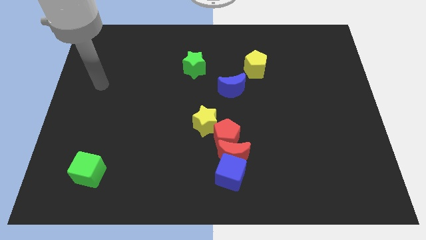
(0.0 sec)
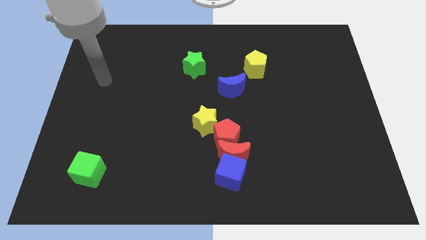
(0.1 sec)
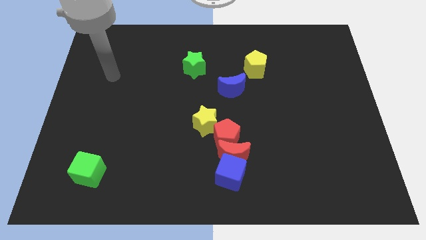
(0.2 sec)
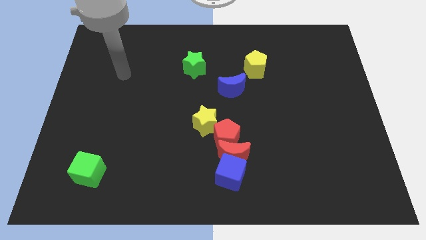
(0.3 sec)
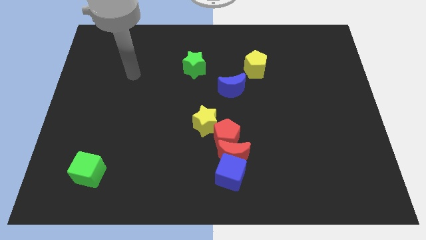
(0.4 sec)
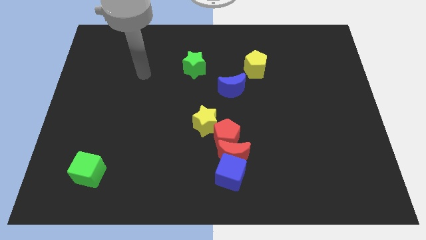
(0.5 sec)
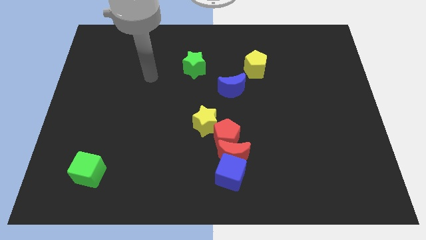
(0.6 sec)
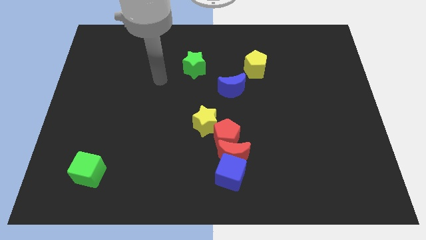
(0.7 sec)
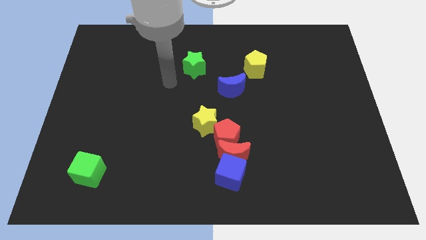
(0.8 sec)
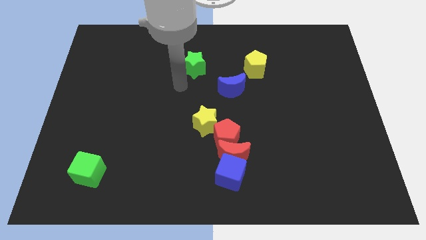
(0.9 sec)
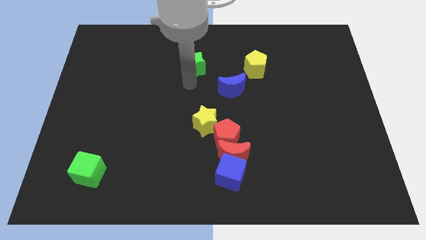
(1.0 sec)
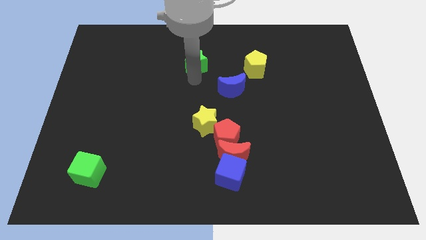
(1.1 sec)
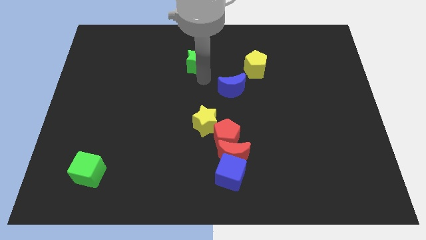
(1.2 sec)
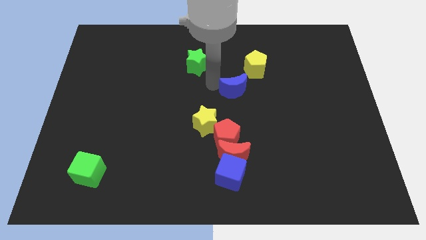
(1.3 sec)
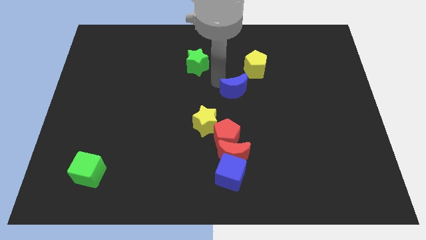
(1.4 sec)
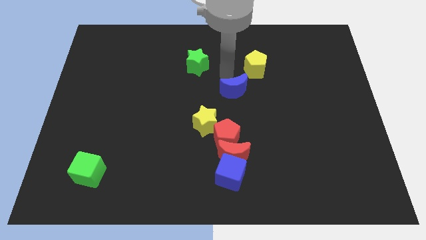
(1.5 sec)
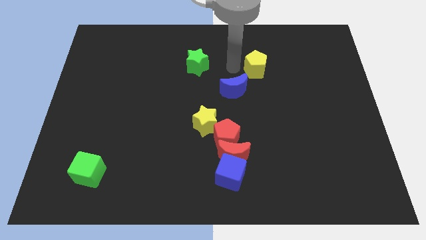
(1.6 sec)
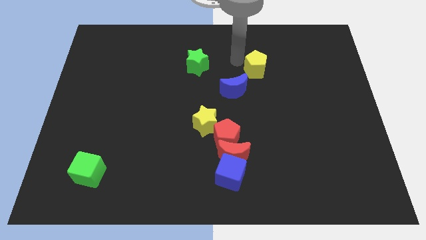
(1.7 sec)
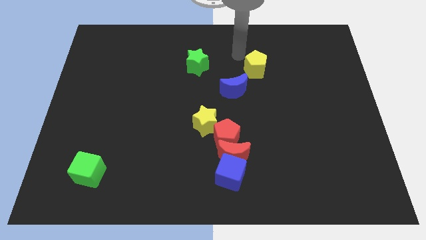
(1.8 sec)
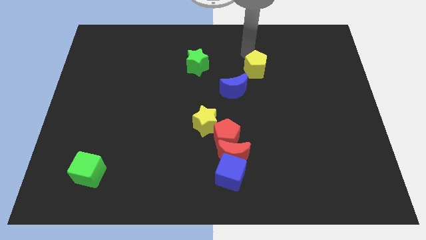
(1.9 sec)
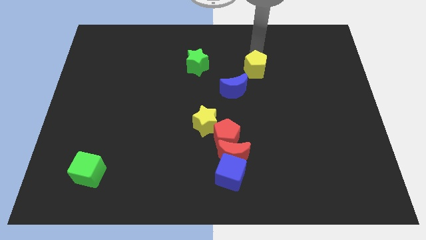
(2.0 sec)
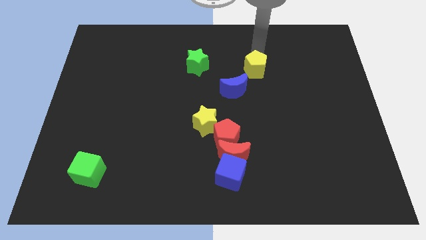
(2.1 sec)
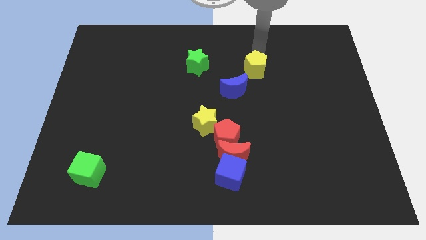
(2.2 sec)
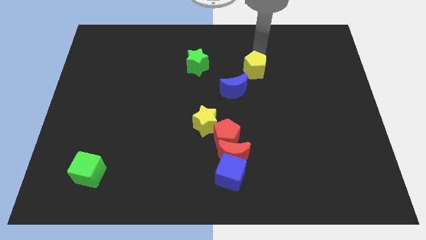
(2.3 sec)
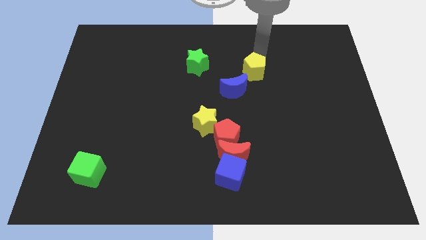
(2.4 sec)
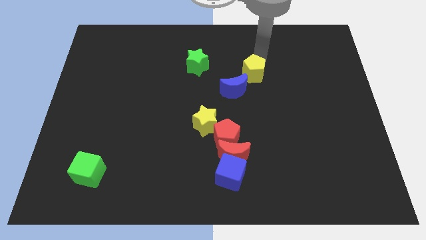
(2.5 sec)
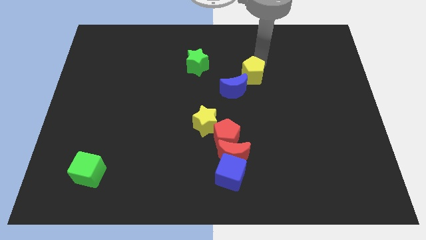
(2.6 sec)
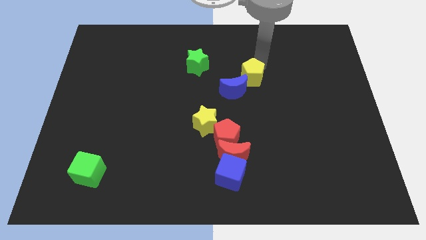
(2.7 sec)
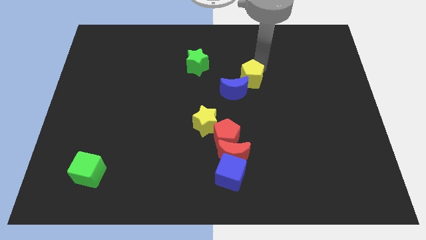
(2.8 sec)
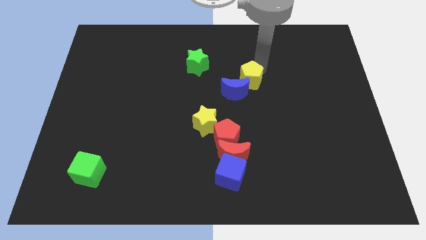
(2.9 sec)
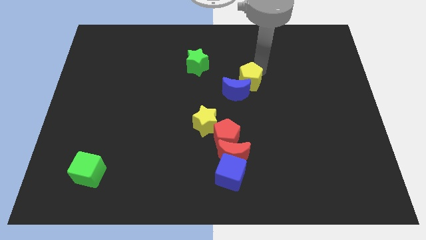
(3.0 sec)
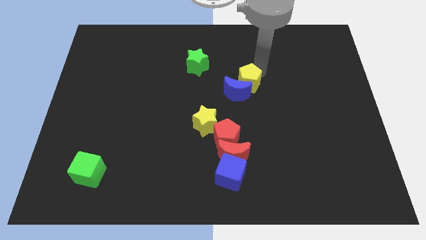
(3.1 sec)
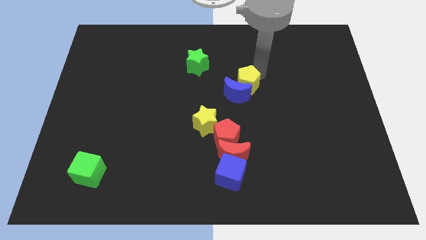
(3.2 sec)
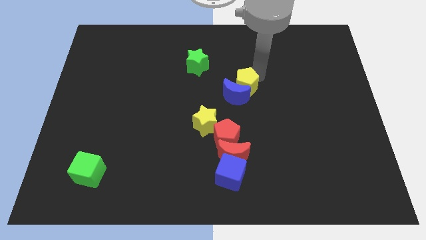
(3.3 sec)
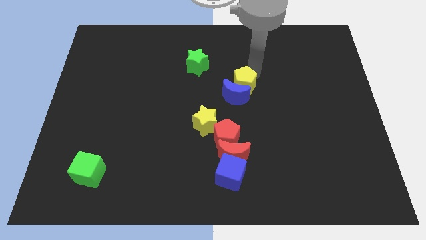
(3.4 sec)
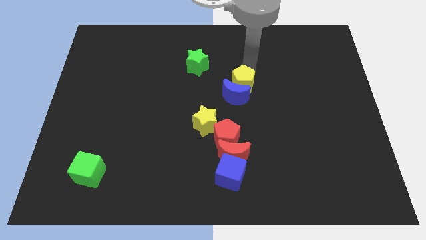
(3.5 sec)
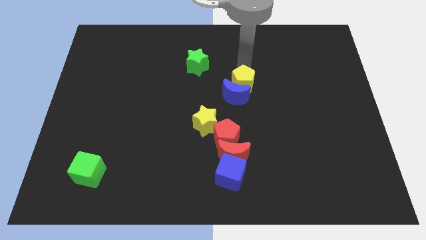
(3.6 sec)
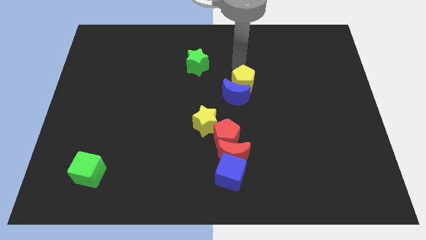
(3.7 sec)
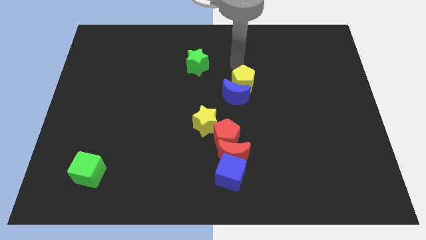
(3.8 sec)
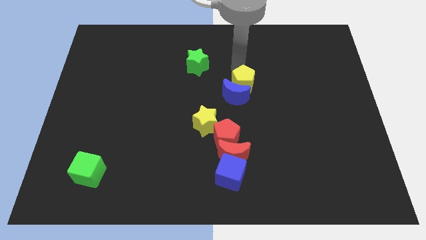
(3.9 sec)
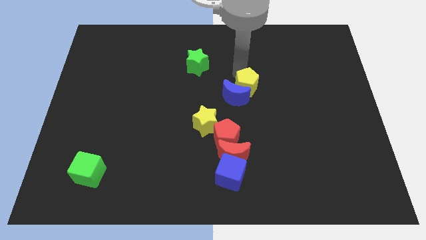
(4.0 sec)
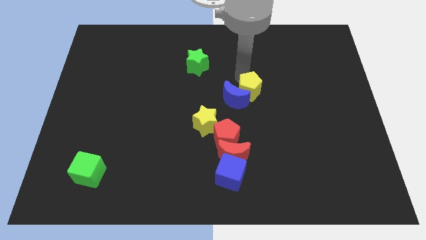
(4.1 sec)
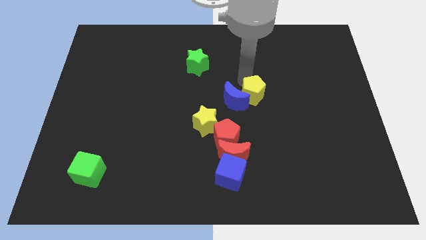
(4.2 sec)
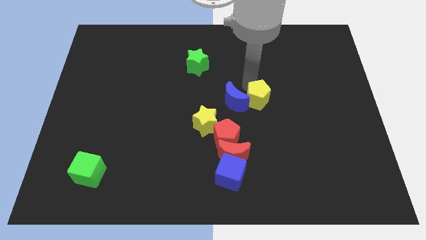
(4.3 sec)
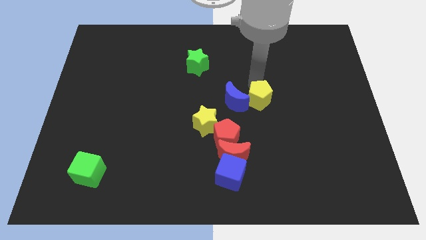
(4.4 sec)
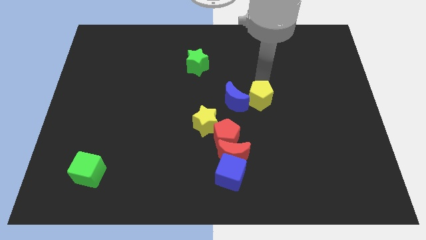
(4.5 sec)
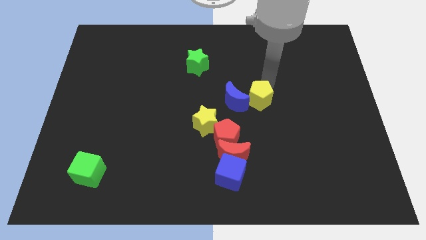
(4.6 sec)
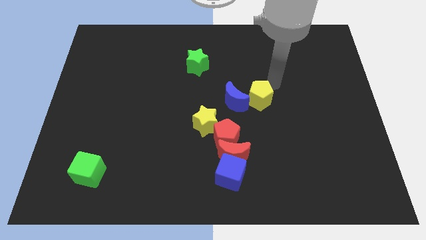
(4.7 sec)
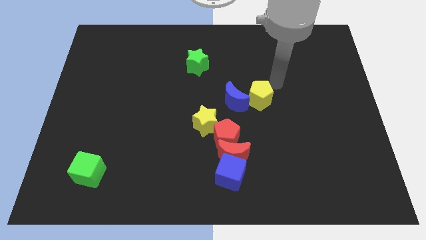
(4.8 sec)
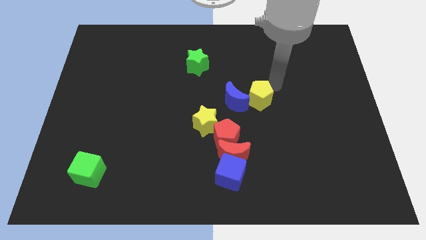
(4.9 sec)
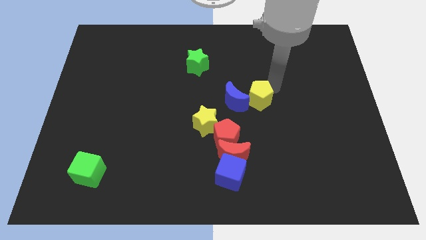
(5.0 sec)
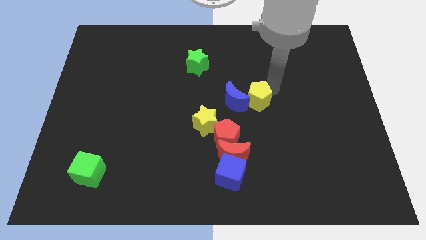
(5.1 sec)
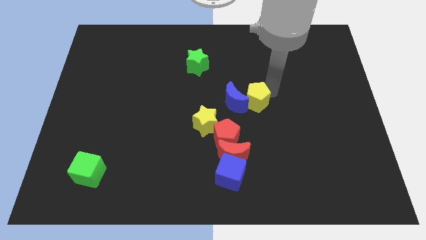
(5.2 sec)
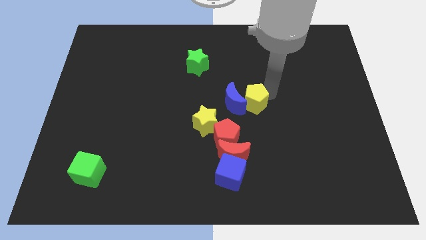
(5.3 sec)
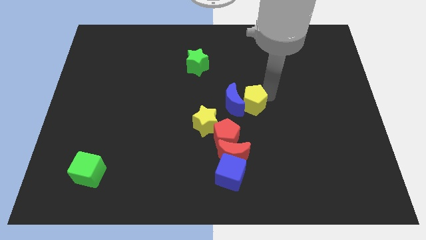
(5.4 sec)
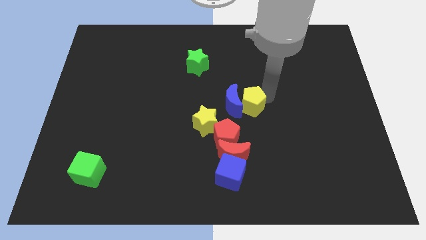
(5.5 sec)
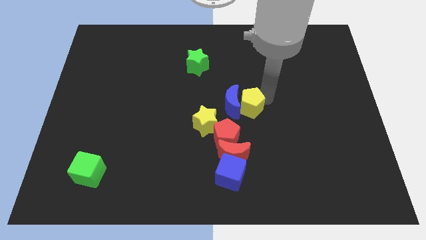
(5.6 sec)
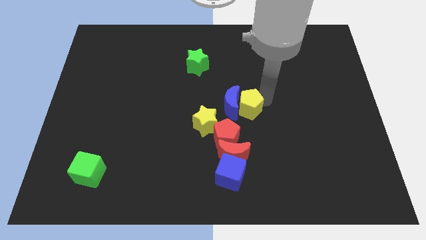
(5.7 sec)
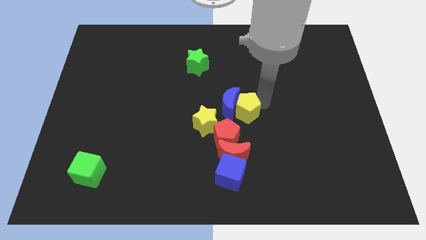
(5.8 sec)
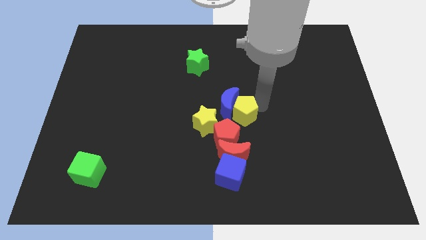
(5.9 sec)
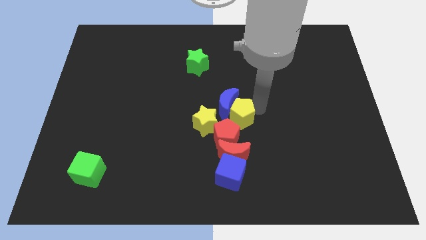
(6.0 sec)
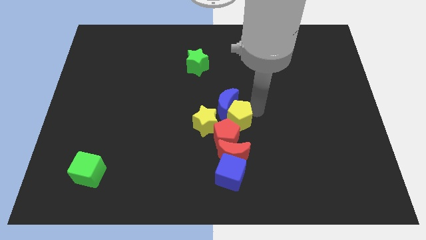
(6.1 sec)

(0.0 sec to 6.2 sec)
push the yellow pentagon to the red pentagon

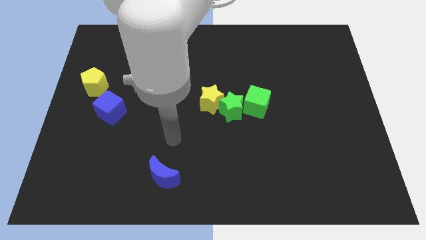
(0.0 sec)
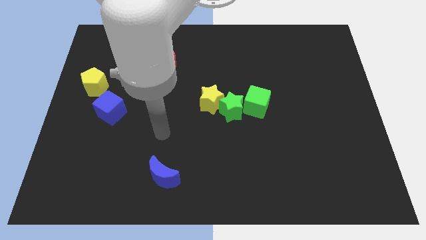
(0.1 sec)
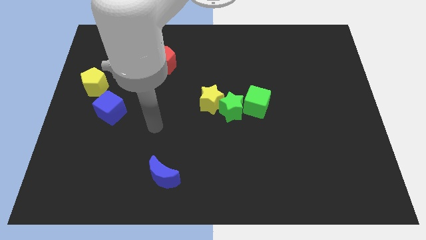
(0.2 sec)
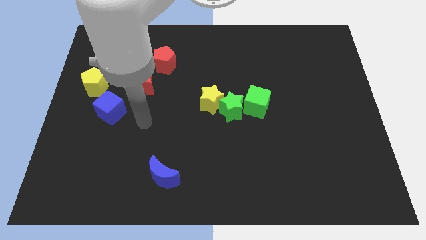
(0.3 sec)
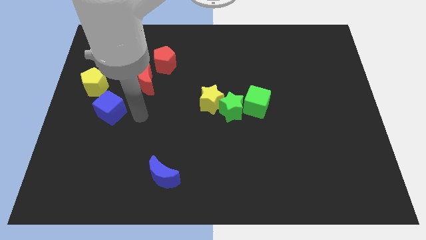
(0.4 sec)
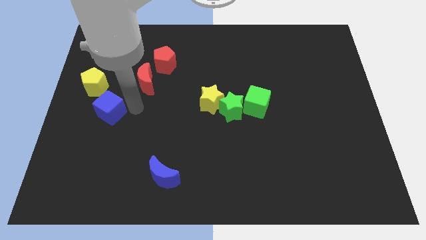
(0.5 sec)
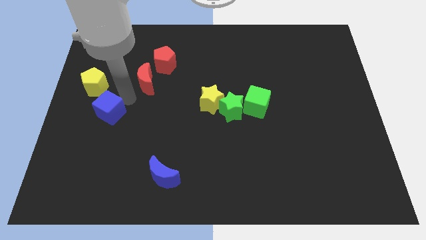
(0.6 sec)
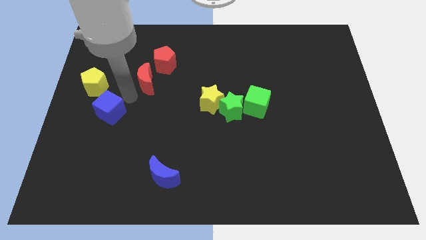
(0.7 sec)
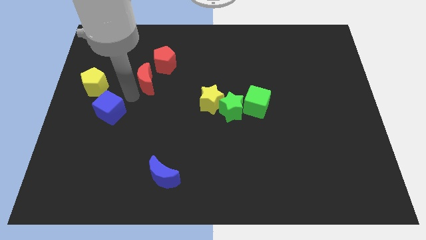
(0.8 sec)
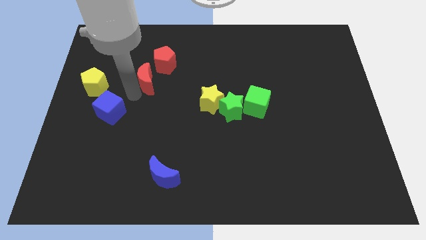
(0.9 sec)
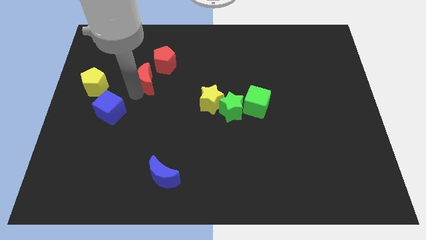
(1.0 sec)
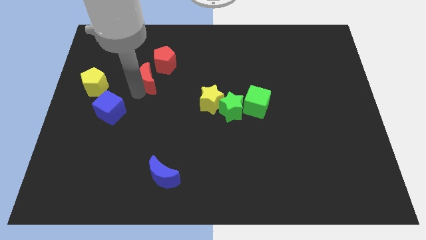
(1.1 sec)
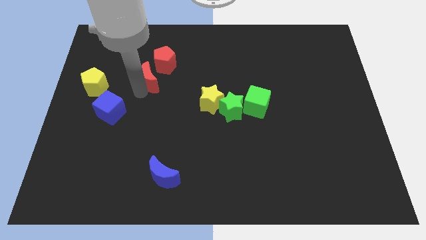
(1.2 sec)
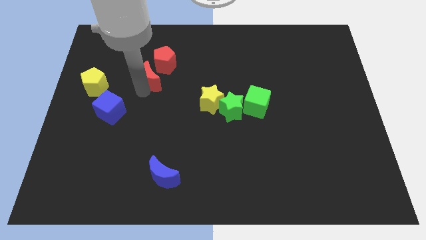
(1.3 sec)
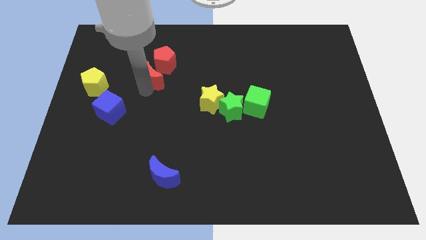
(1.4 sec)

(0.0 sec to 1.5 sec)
push the red moon towards the red pentagon
